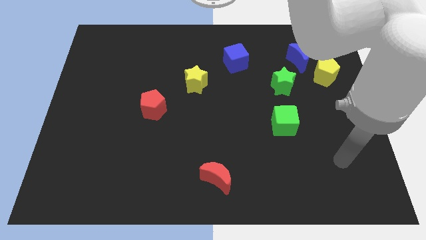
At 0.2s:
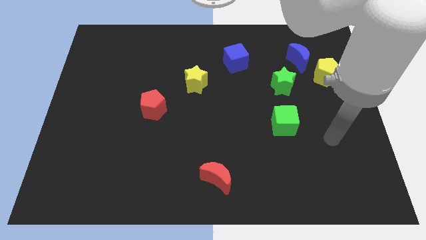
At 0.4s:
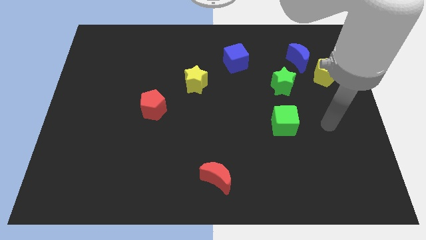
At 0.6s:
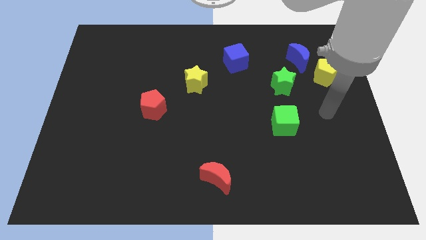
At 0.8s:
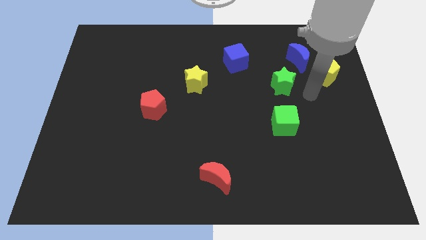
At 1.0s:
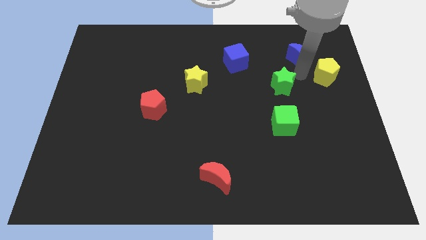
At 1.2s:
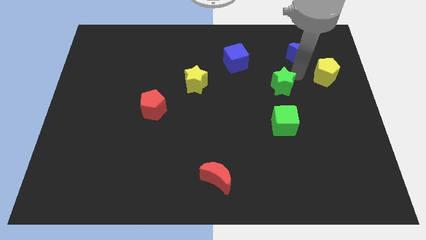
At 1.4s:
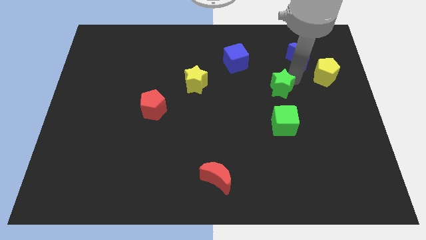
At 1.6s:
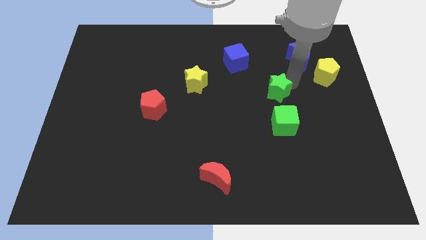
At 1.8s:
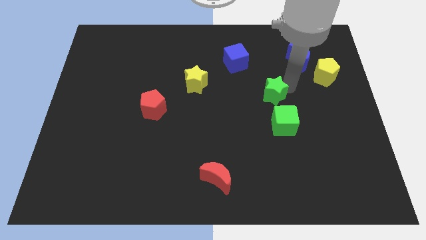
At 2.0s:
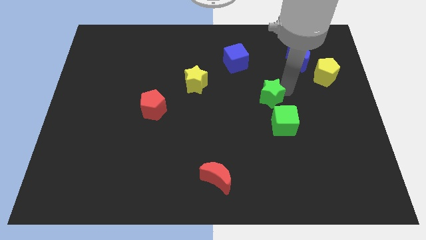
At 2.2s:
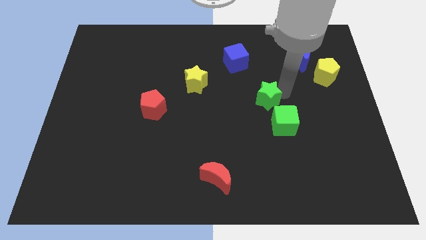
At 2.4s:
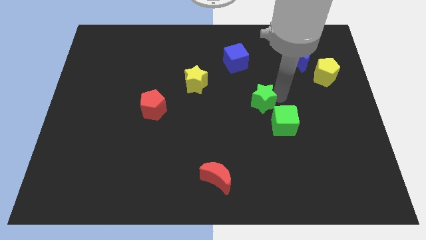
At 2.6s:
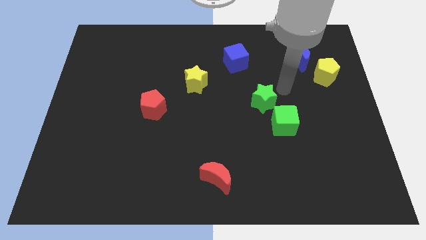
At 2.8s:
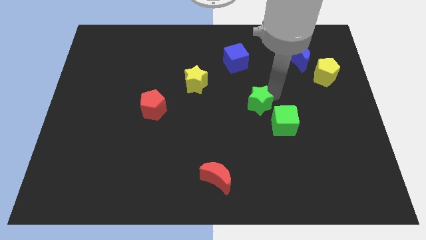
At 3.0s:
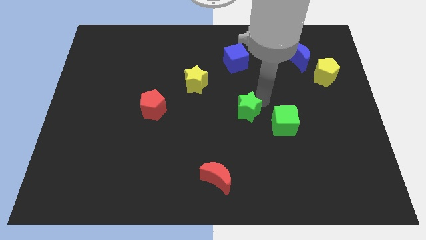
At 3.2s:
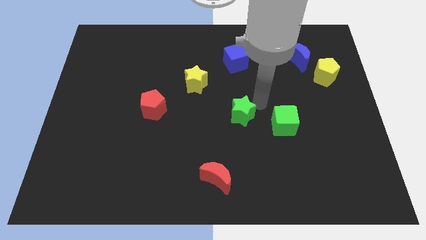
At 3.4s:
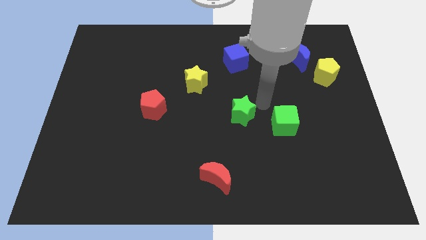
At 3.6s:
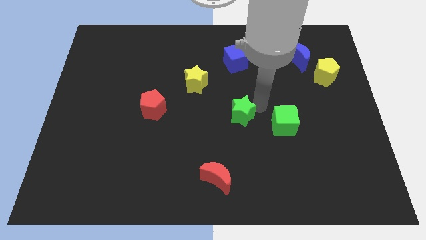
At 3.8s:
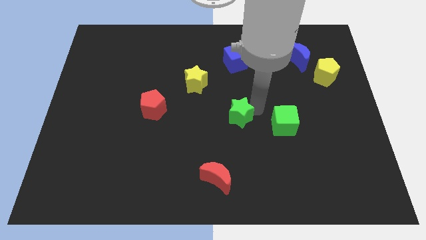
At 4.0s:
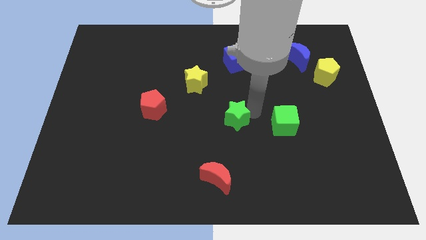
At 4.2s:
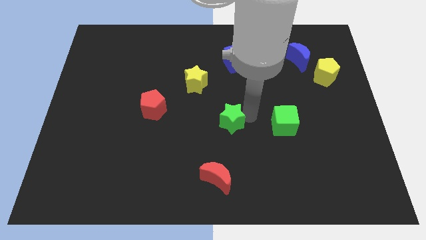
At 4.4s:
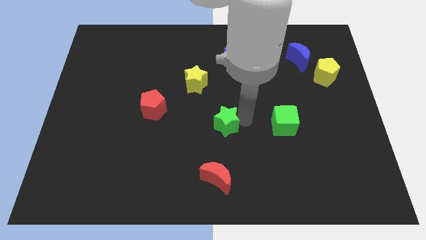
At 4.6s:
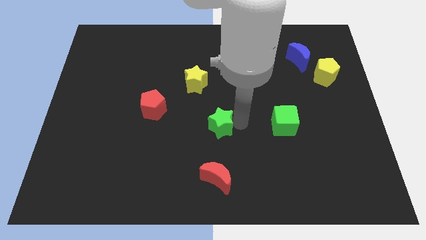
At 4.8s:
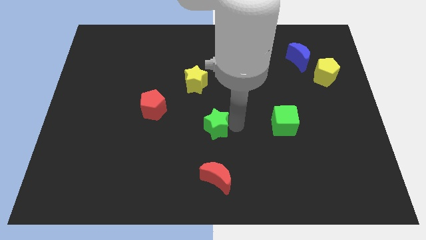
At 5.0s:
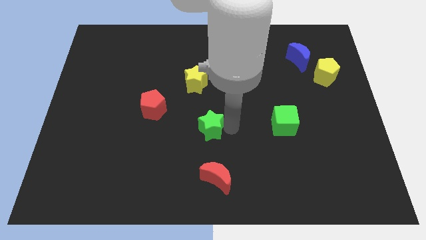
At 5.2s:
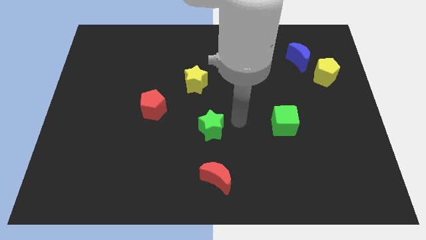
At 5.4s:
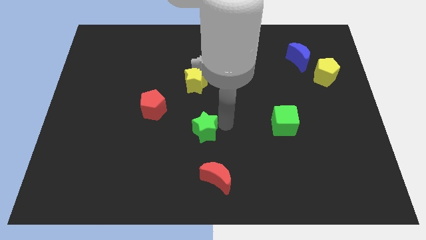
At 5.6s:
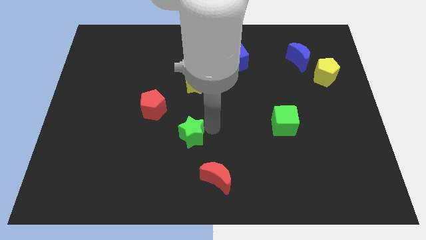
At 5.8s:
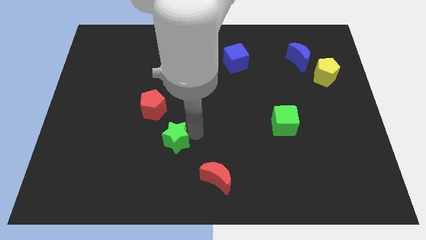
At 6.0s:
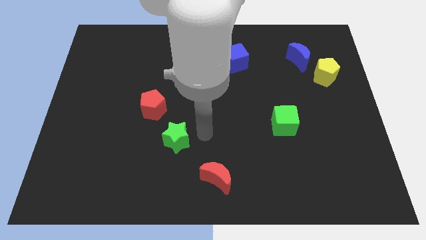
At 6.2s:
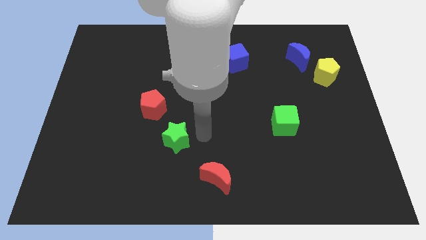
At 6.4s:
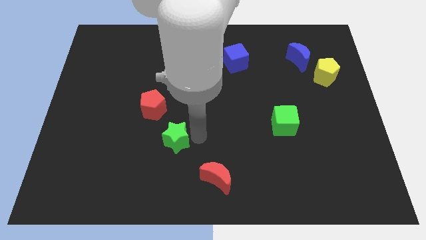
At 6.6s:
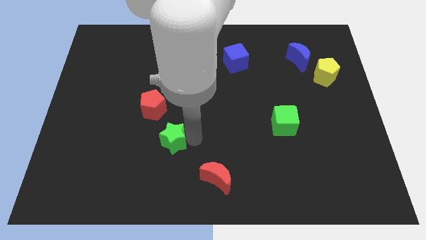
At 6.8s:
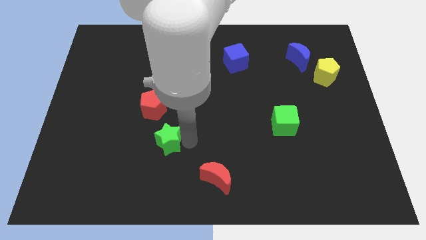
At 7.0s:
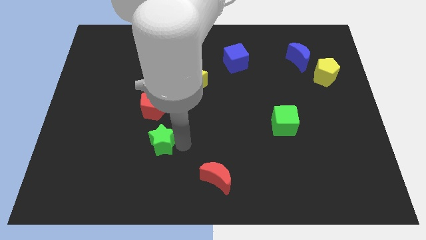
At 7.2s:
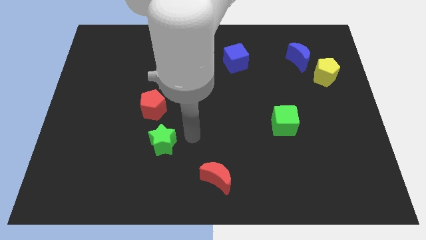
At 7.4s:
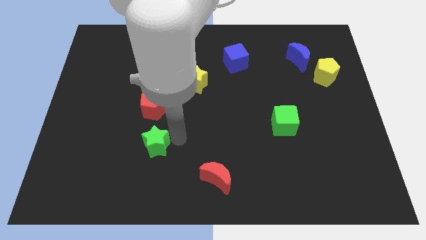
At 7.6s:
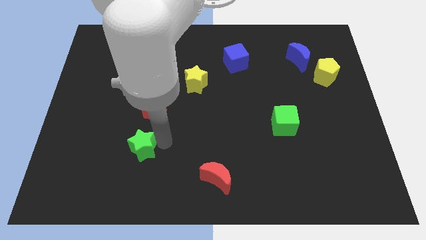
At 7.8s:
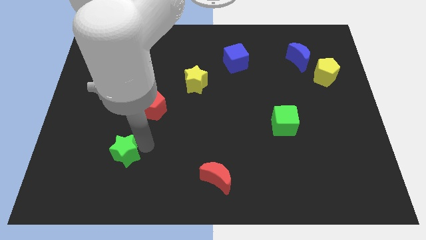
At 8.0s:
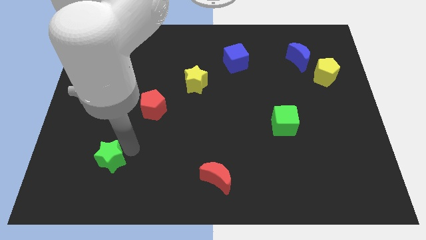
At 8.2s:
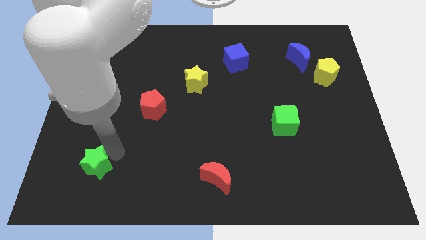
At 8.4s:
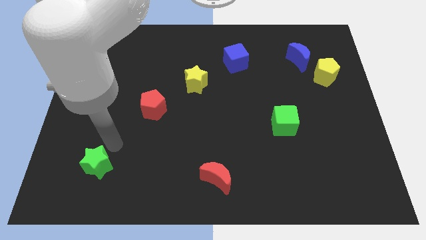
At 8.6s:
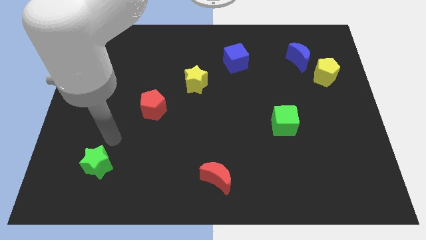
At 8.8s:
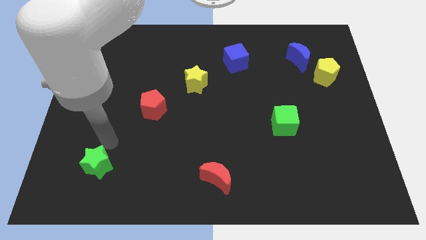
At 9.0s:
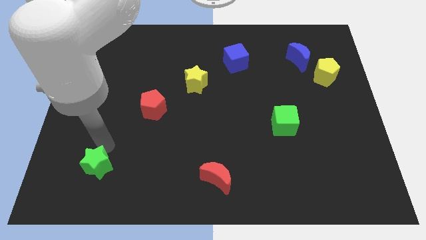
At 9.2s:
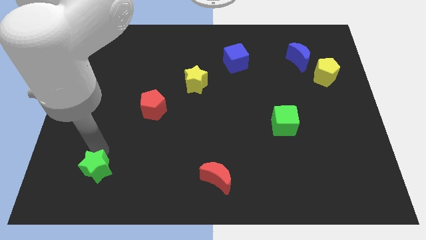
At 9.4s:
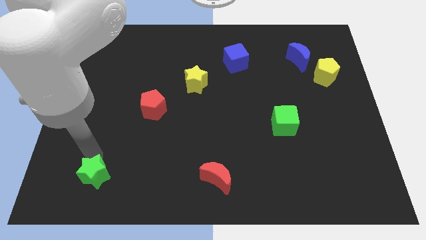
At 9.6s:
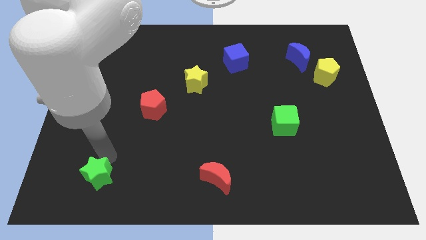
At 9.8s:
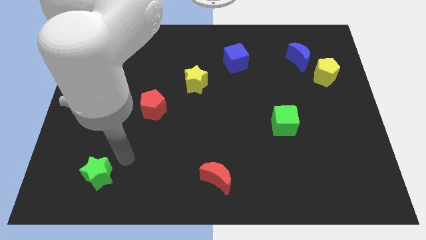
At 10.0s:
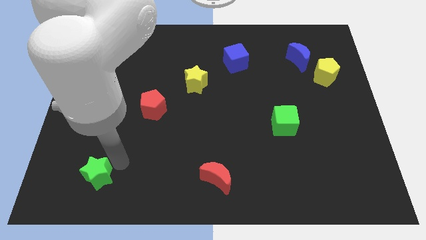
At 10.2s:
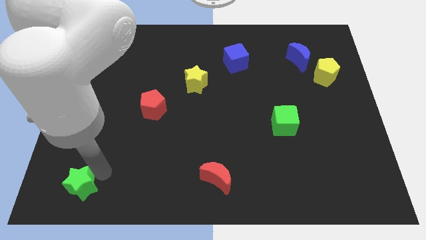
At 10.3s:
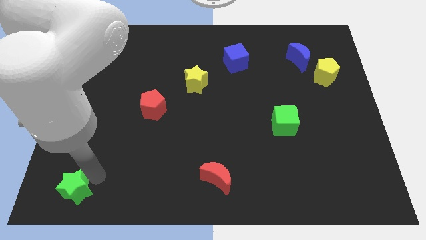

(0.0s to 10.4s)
push the green star to the bottom left of the board
